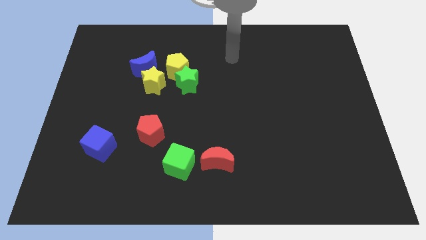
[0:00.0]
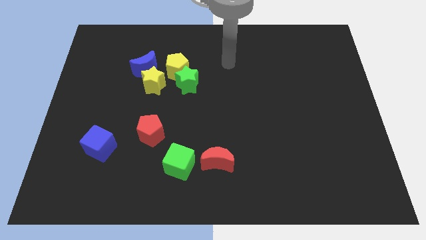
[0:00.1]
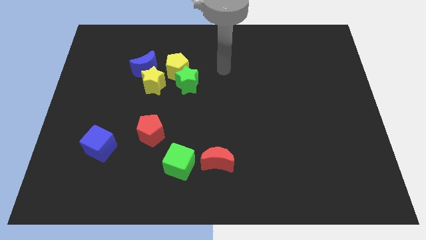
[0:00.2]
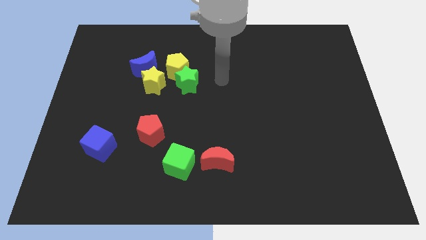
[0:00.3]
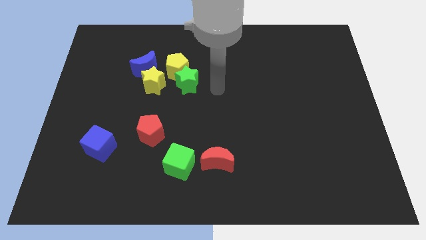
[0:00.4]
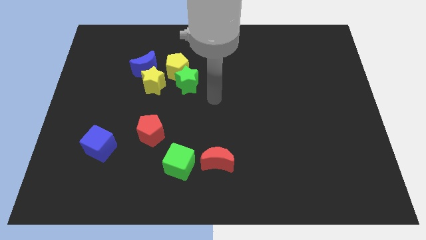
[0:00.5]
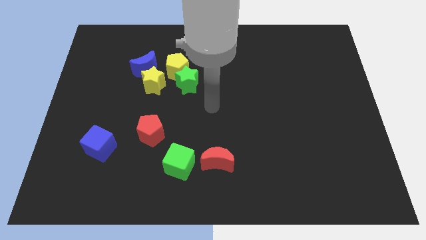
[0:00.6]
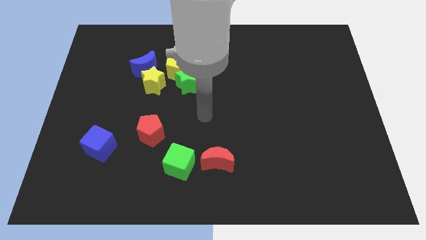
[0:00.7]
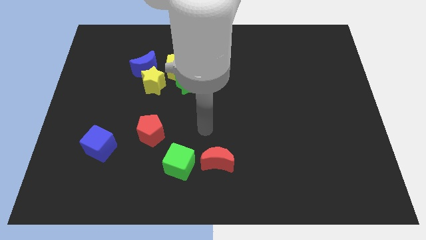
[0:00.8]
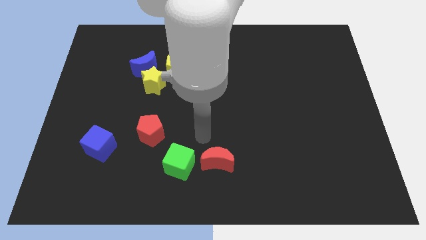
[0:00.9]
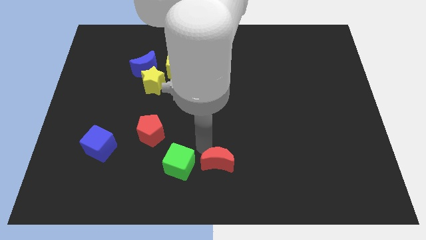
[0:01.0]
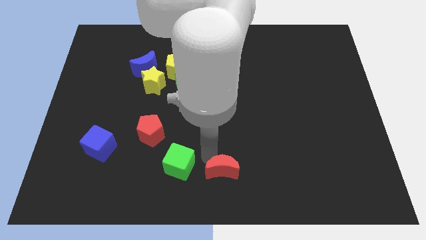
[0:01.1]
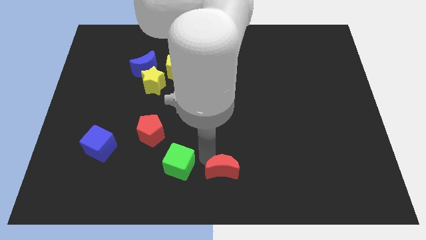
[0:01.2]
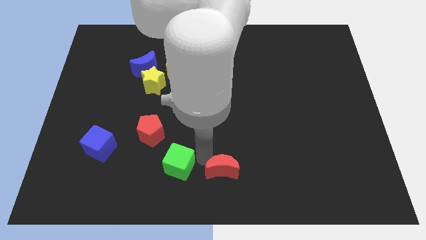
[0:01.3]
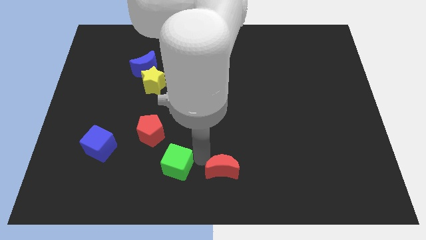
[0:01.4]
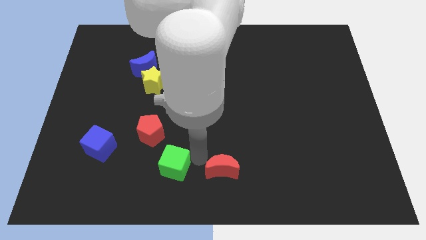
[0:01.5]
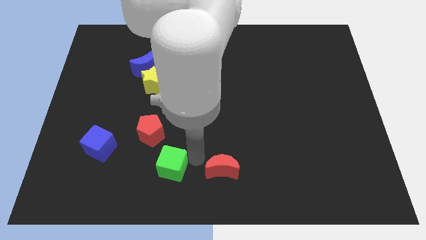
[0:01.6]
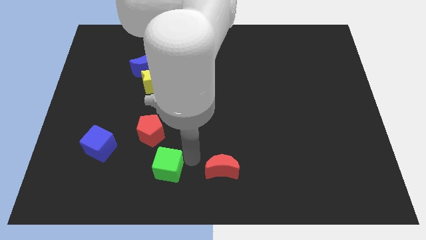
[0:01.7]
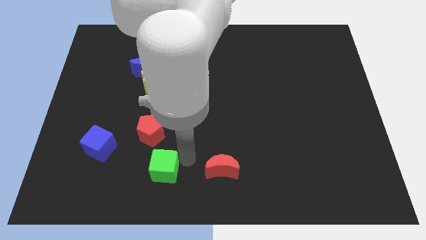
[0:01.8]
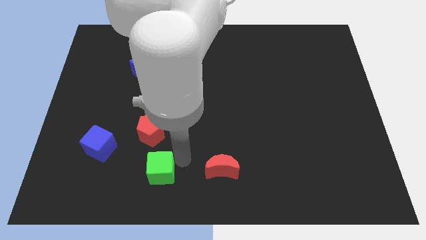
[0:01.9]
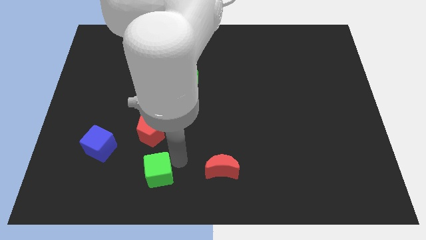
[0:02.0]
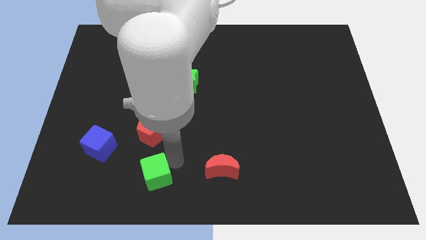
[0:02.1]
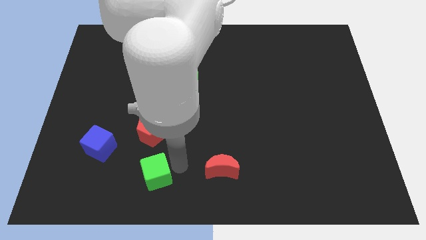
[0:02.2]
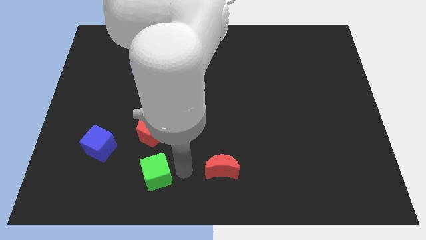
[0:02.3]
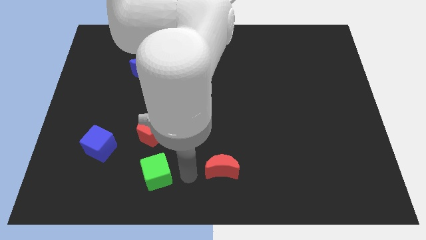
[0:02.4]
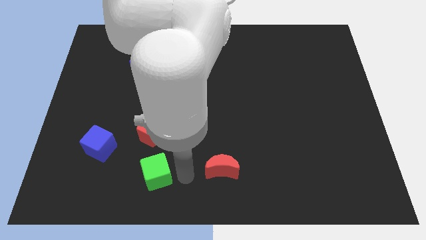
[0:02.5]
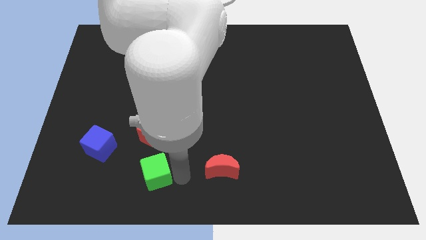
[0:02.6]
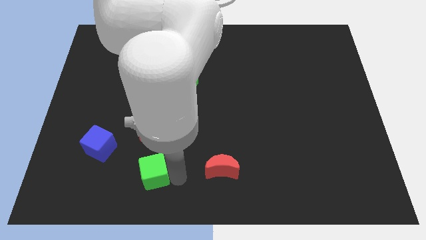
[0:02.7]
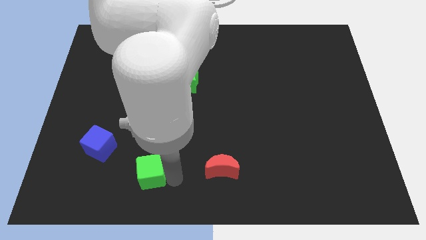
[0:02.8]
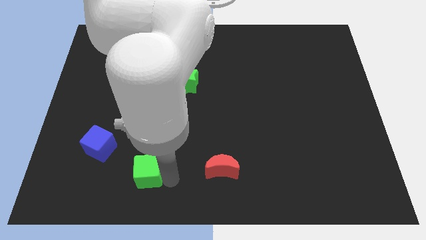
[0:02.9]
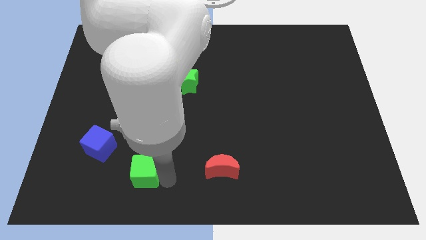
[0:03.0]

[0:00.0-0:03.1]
move the green cube left a little bit

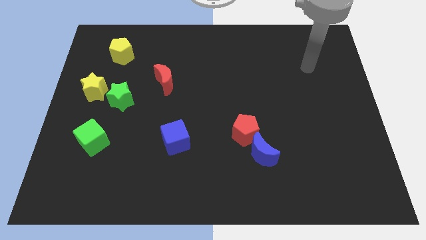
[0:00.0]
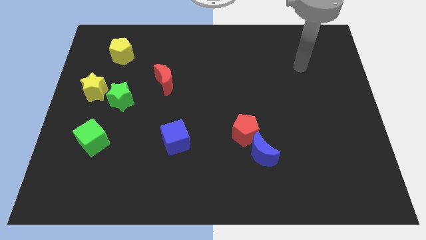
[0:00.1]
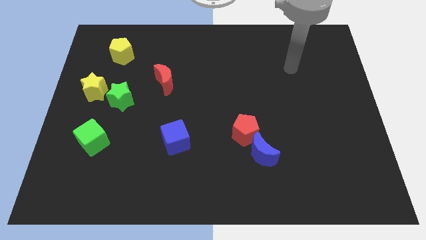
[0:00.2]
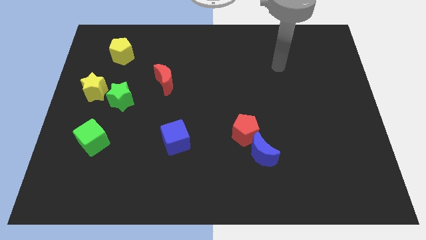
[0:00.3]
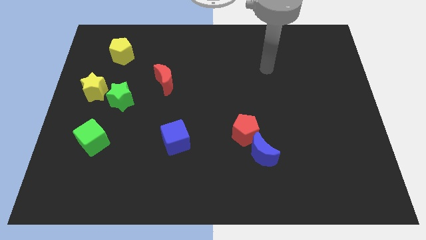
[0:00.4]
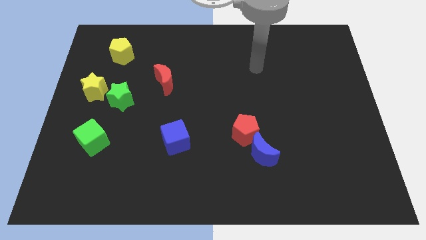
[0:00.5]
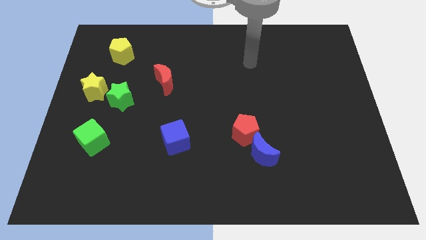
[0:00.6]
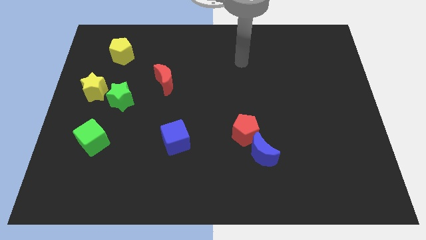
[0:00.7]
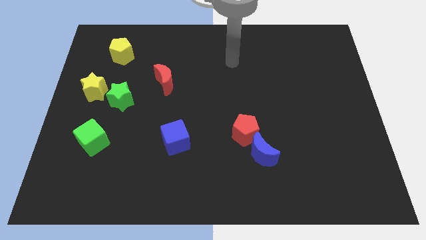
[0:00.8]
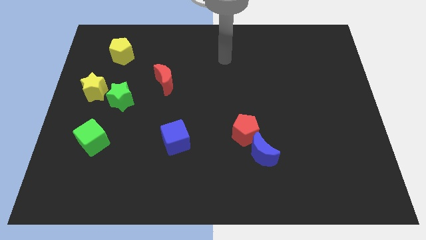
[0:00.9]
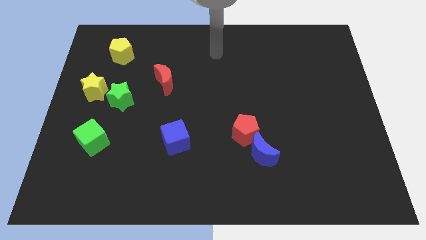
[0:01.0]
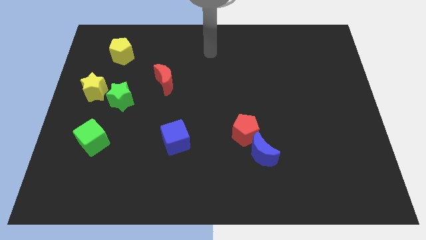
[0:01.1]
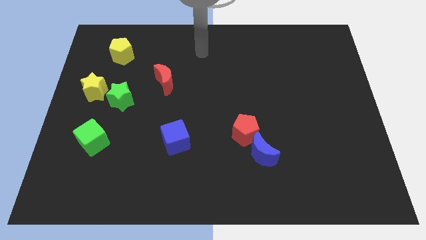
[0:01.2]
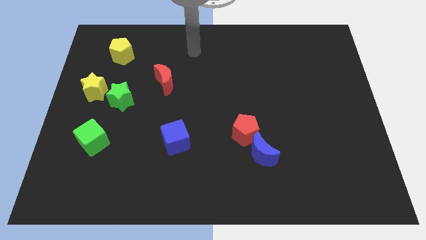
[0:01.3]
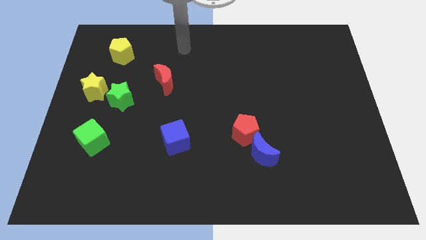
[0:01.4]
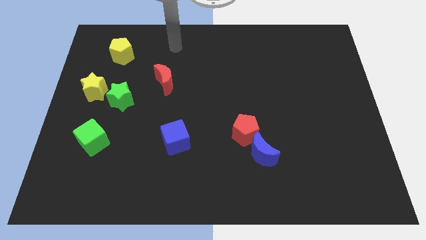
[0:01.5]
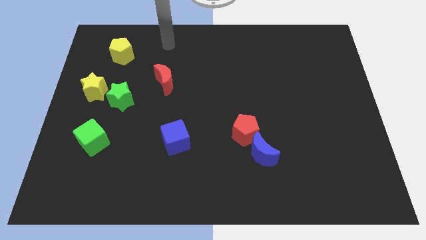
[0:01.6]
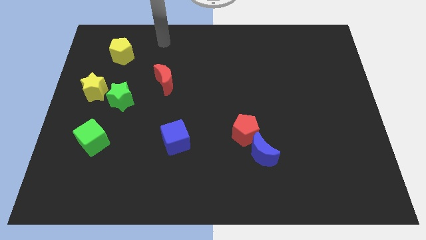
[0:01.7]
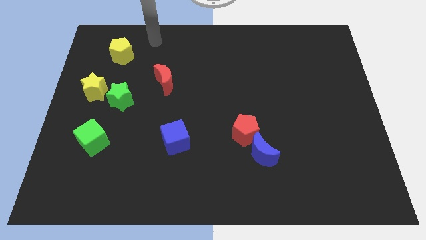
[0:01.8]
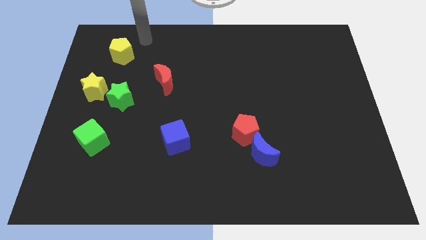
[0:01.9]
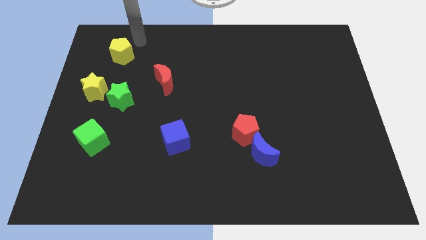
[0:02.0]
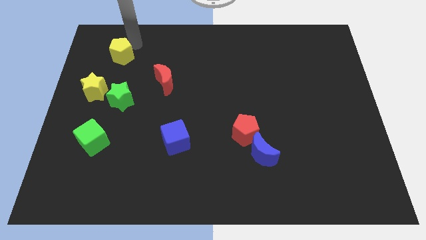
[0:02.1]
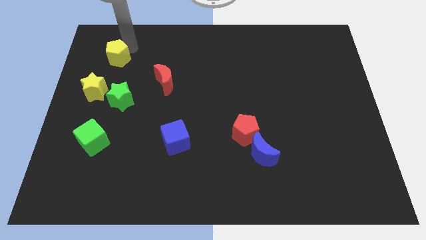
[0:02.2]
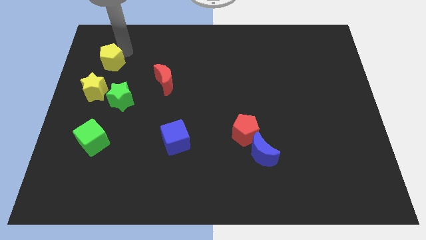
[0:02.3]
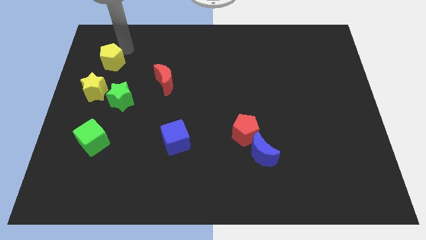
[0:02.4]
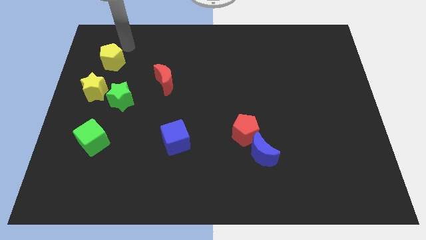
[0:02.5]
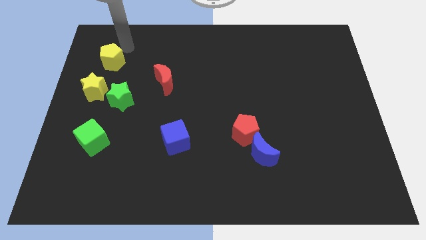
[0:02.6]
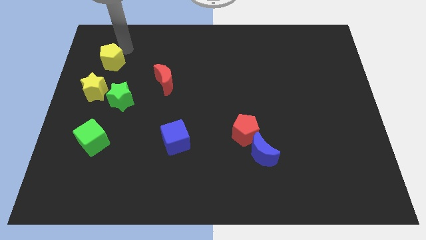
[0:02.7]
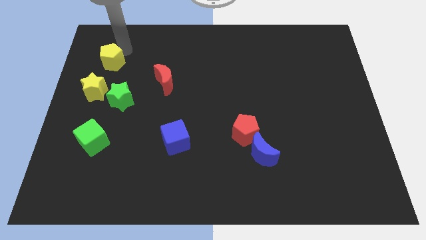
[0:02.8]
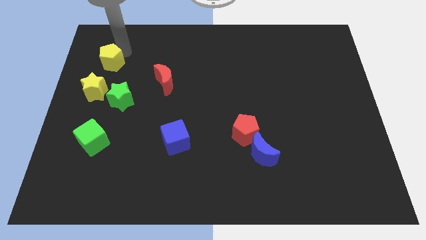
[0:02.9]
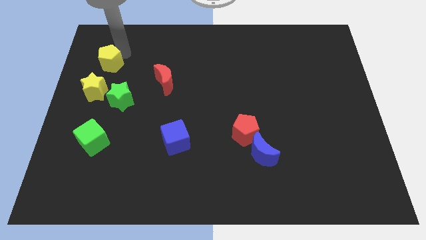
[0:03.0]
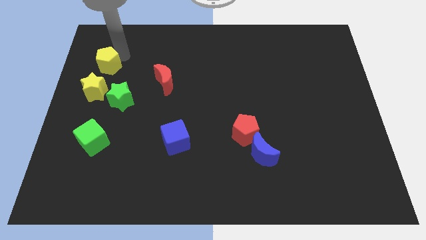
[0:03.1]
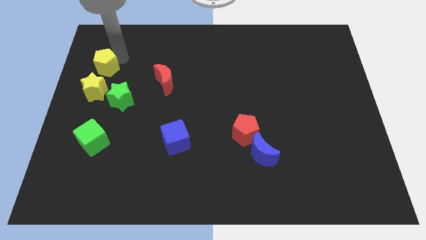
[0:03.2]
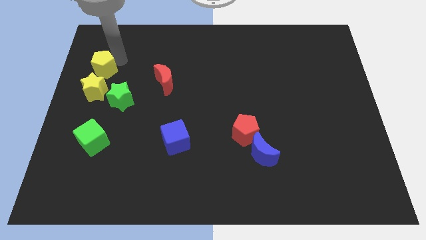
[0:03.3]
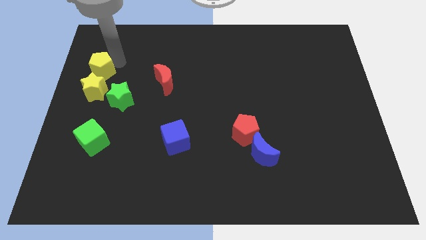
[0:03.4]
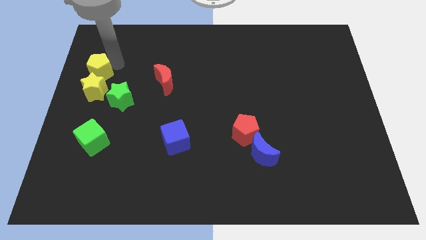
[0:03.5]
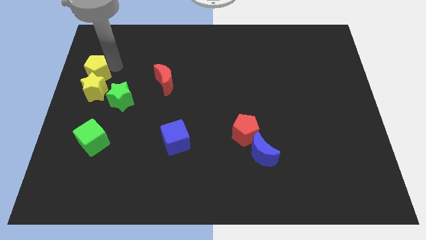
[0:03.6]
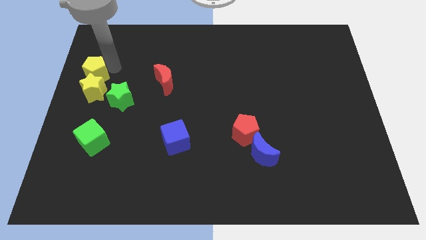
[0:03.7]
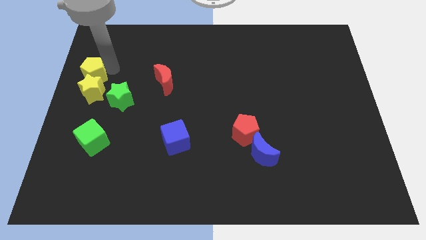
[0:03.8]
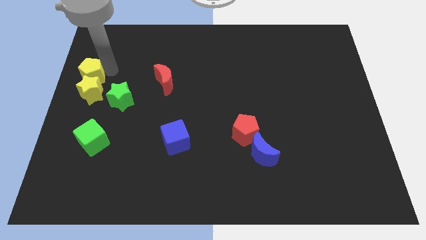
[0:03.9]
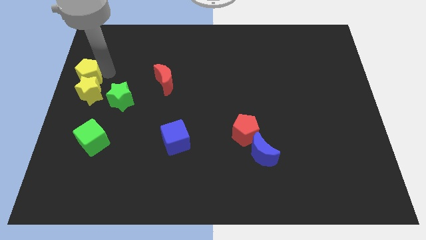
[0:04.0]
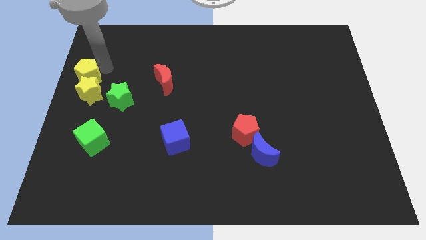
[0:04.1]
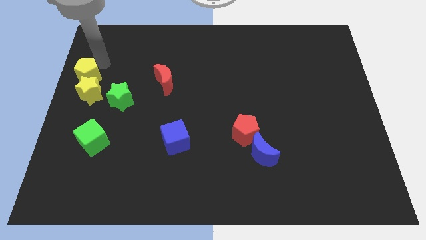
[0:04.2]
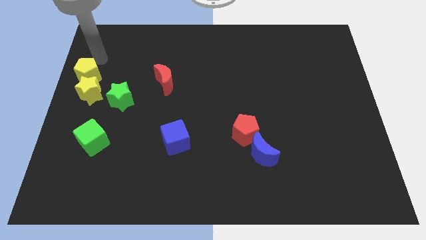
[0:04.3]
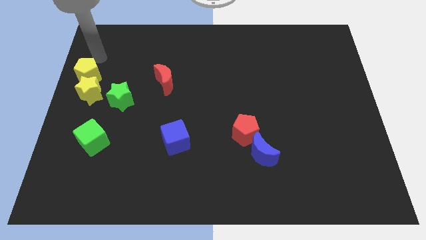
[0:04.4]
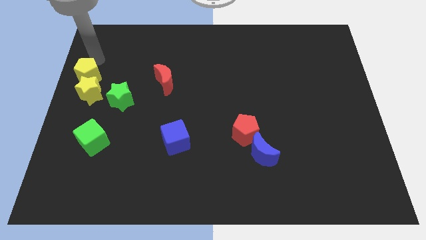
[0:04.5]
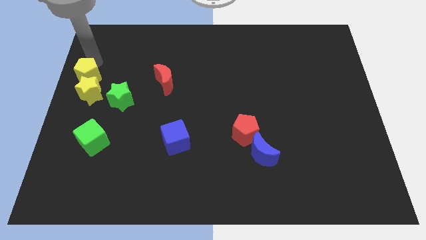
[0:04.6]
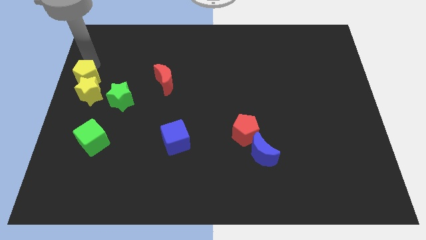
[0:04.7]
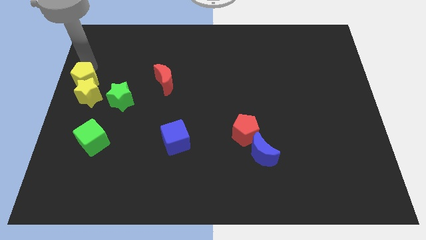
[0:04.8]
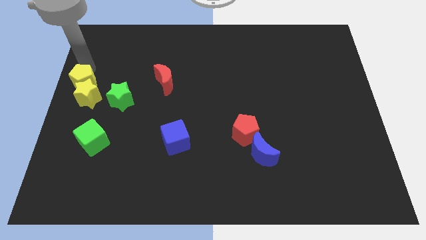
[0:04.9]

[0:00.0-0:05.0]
slide the yellow pentagon slightly downwards

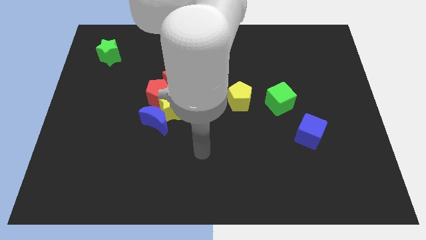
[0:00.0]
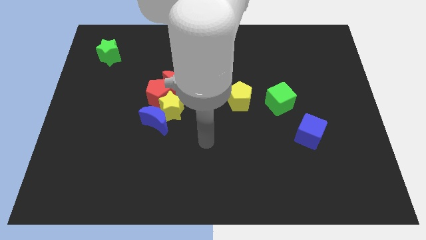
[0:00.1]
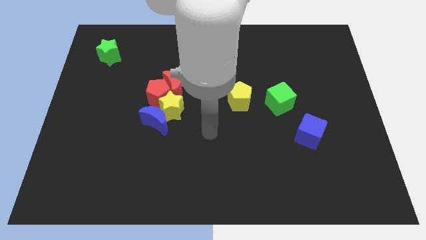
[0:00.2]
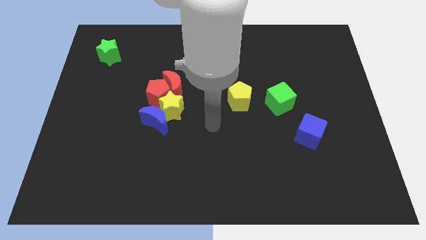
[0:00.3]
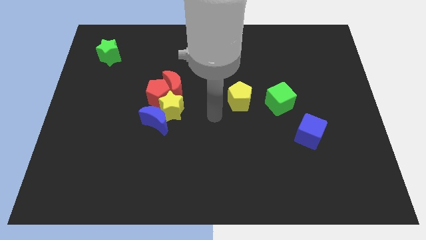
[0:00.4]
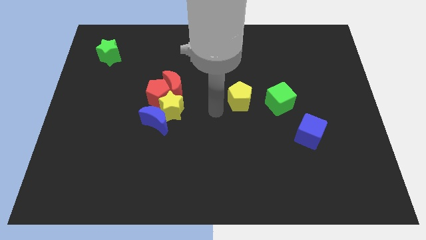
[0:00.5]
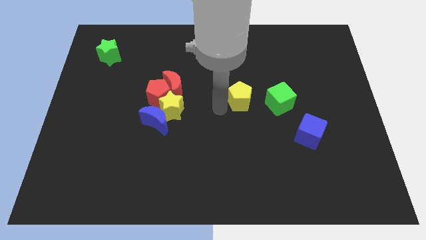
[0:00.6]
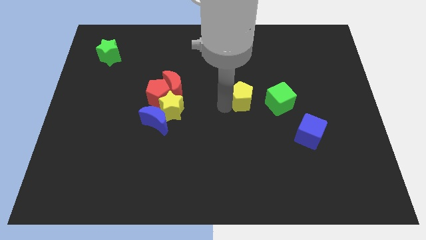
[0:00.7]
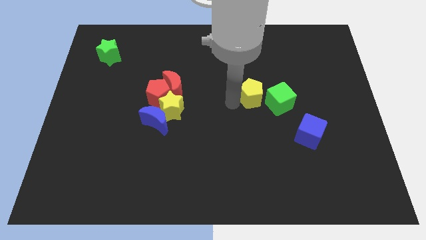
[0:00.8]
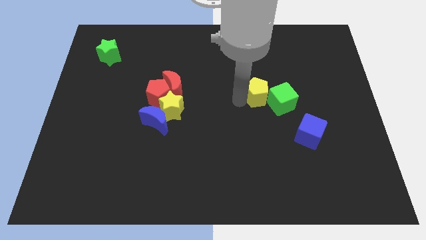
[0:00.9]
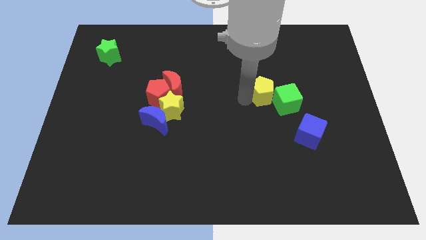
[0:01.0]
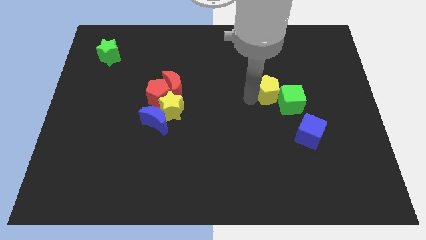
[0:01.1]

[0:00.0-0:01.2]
slide the yellow pentagon to the right a little bit
